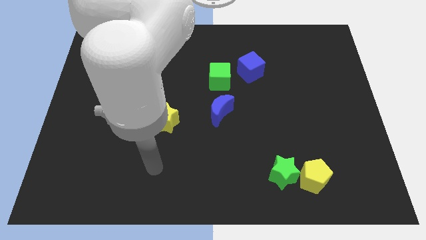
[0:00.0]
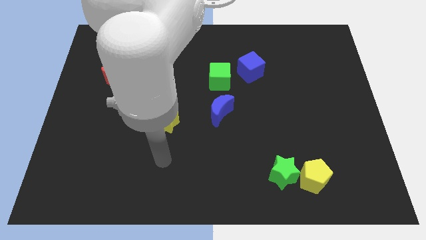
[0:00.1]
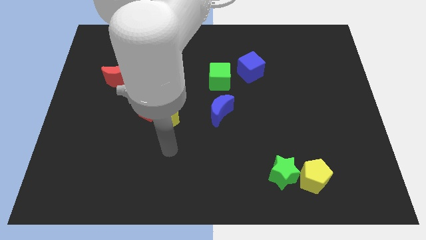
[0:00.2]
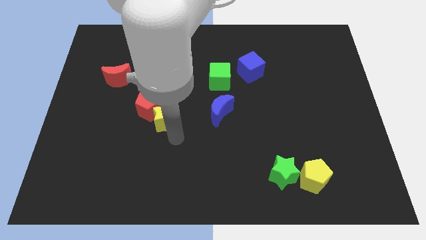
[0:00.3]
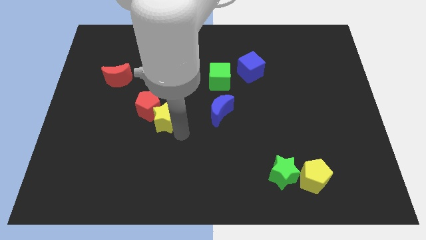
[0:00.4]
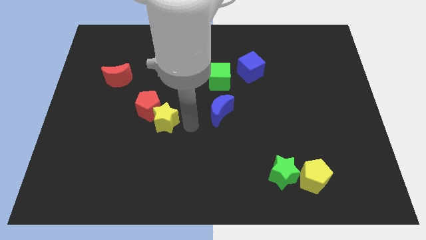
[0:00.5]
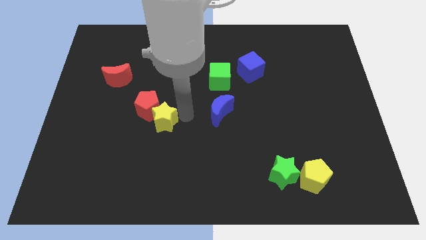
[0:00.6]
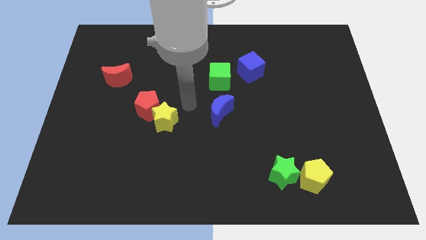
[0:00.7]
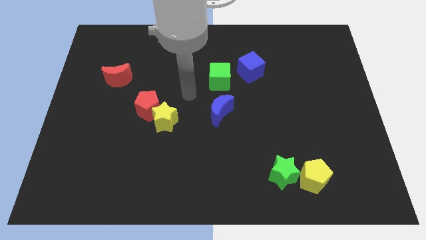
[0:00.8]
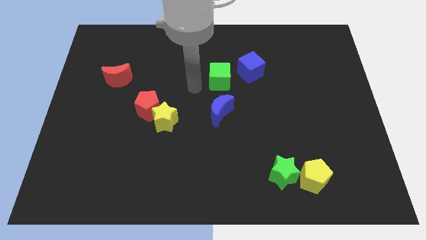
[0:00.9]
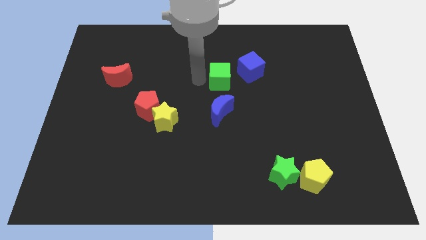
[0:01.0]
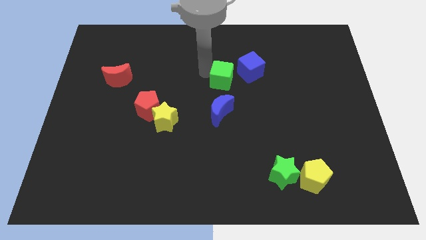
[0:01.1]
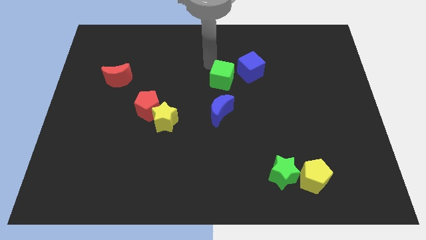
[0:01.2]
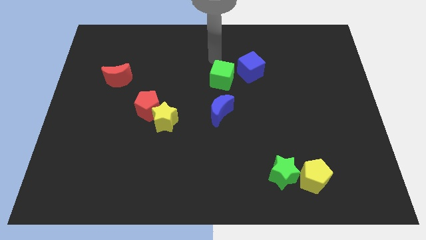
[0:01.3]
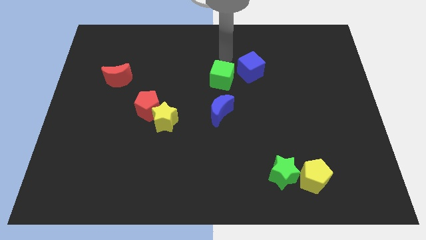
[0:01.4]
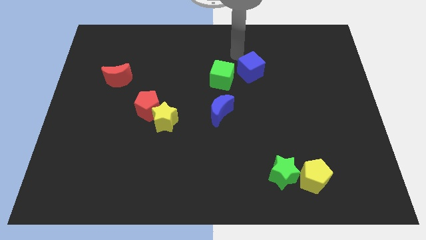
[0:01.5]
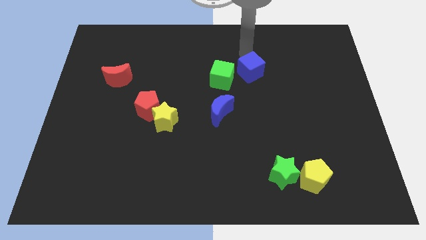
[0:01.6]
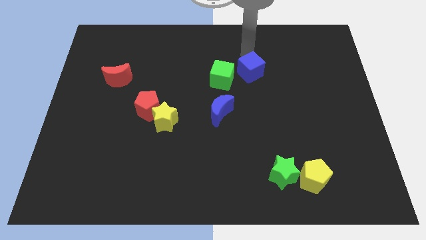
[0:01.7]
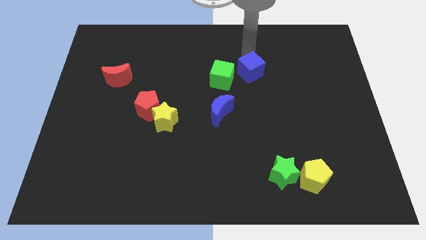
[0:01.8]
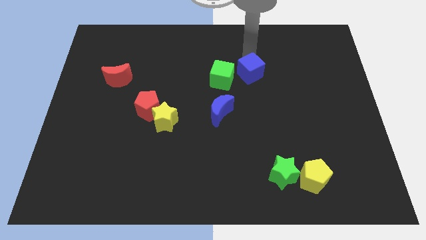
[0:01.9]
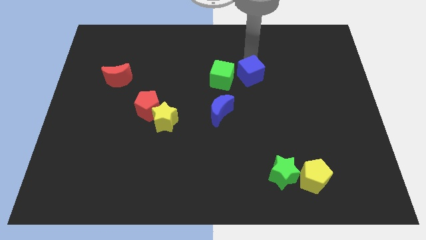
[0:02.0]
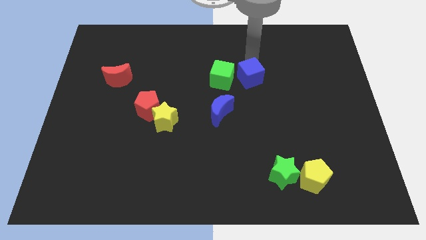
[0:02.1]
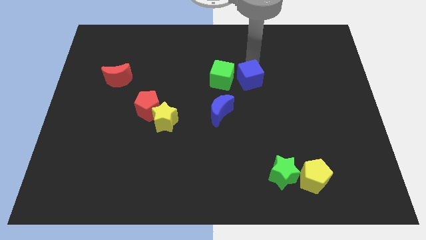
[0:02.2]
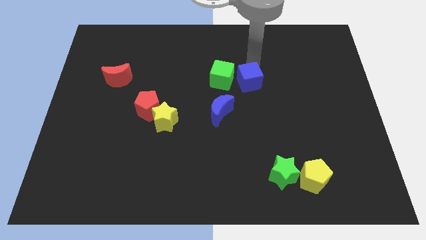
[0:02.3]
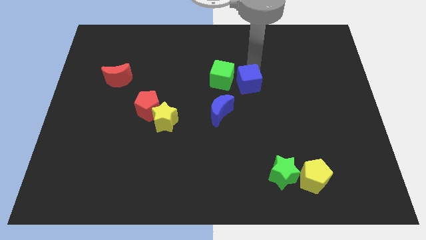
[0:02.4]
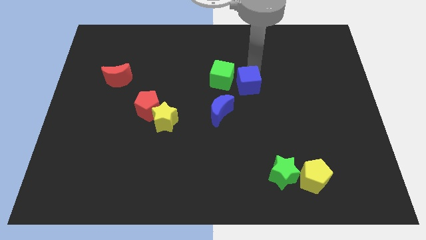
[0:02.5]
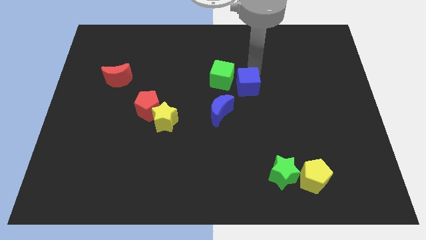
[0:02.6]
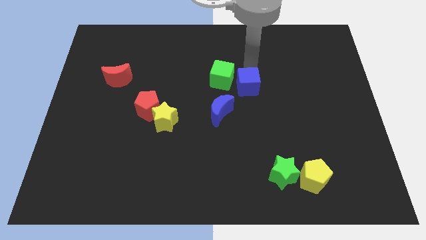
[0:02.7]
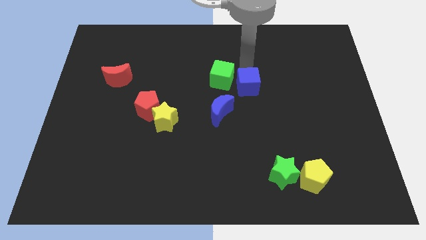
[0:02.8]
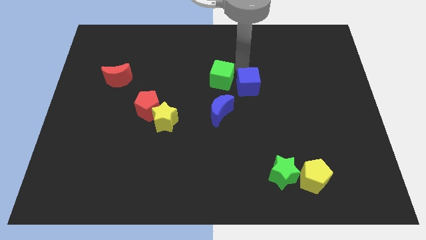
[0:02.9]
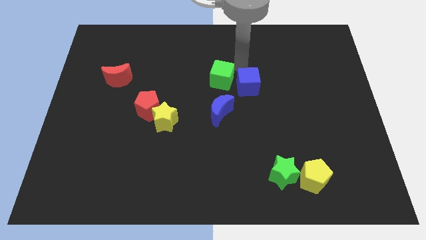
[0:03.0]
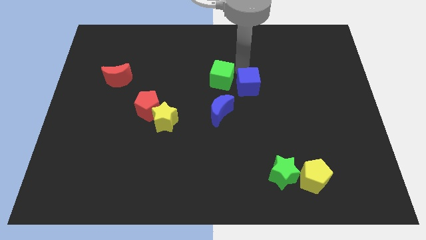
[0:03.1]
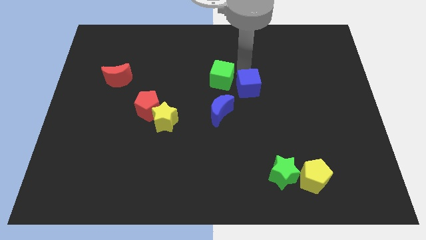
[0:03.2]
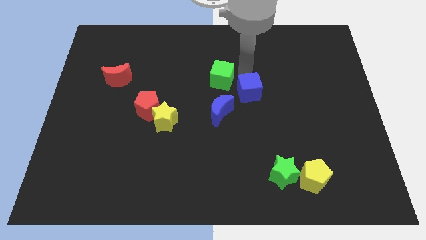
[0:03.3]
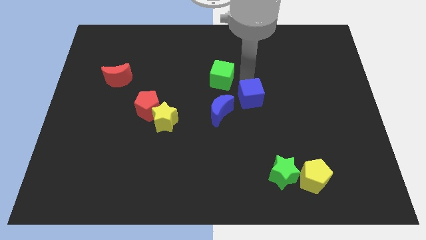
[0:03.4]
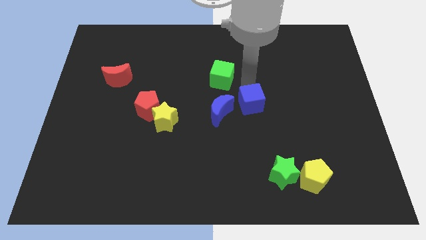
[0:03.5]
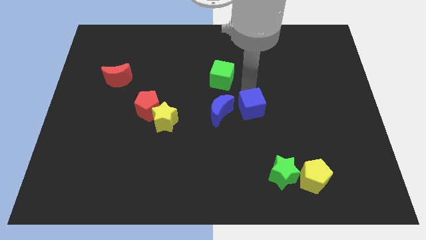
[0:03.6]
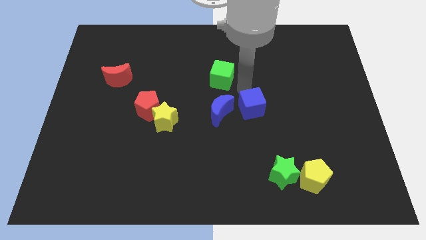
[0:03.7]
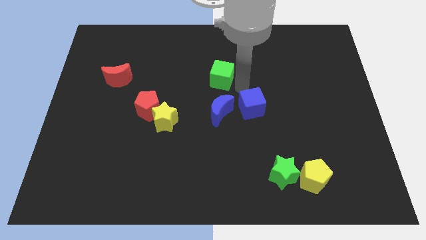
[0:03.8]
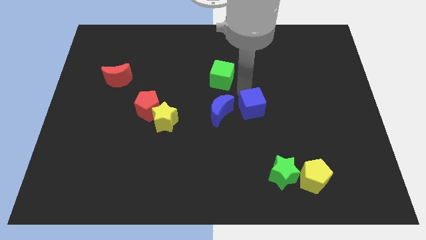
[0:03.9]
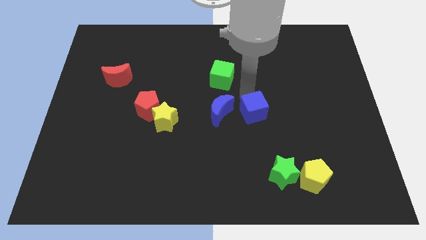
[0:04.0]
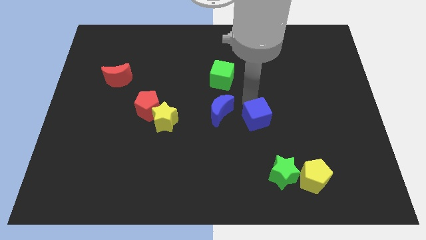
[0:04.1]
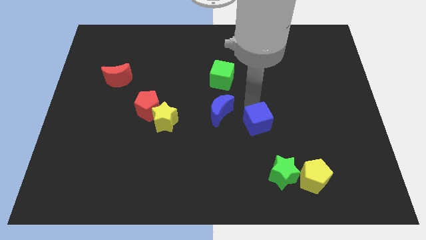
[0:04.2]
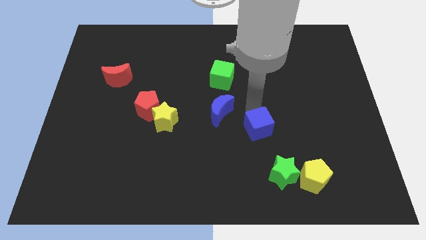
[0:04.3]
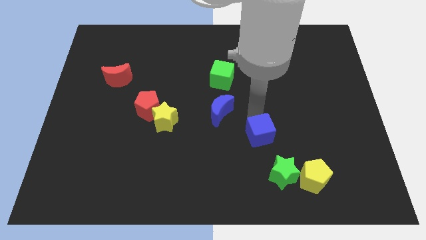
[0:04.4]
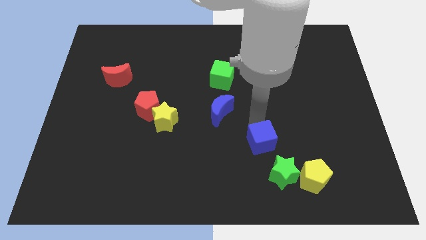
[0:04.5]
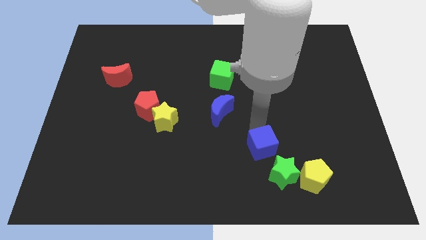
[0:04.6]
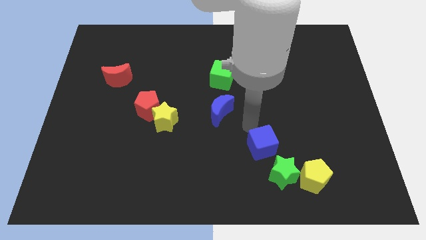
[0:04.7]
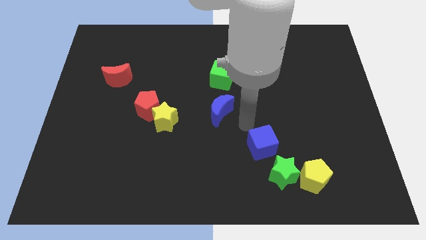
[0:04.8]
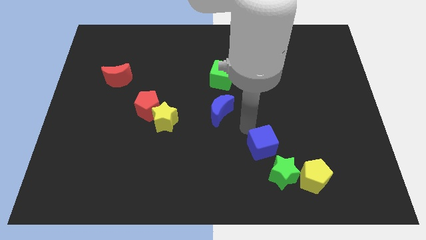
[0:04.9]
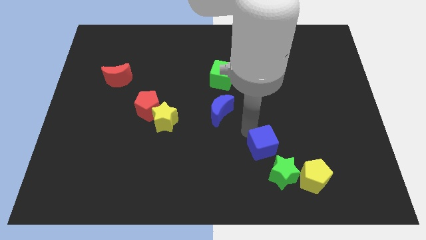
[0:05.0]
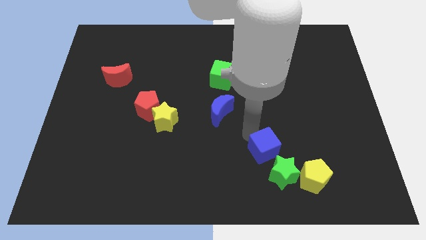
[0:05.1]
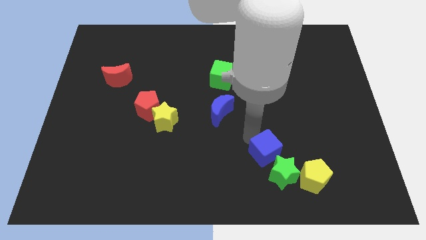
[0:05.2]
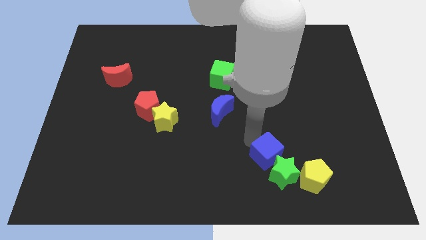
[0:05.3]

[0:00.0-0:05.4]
push the blue cube close to the green star

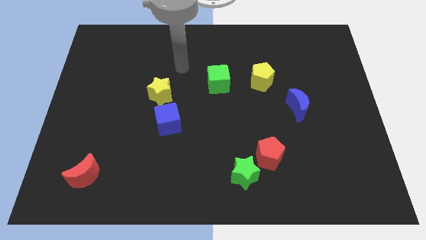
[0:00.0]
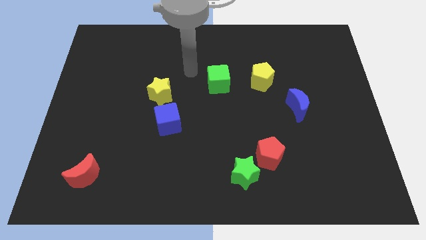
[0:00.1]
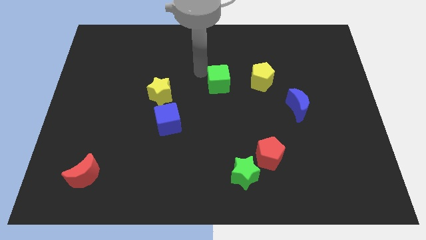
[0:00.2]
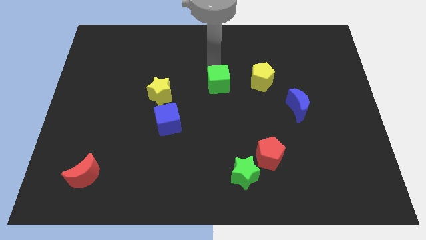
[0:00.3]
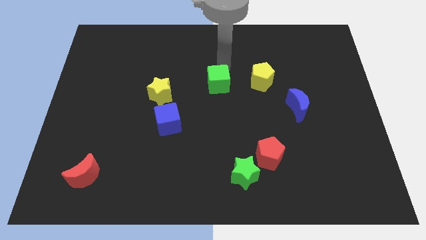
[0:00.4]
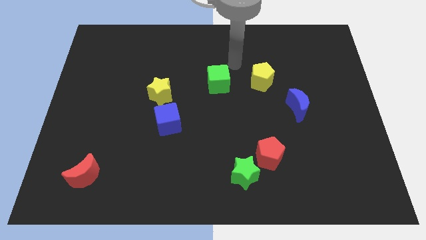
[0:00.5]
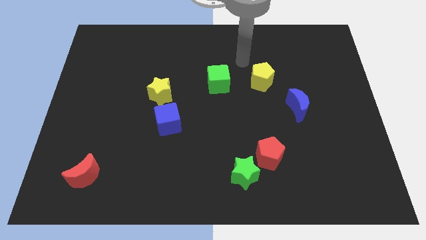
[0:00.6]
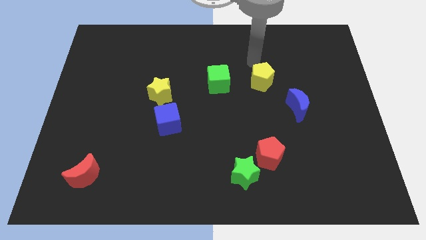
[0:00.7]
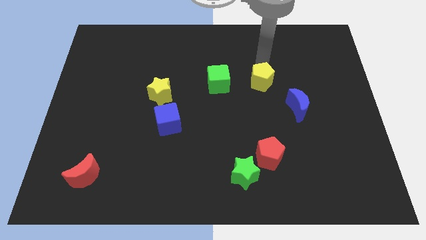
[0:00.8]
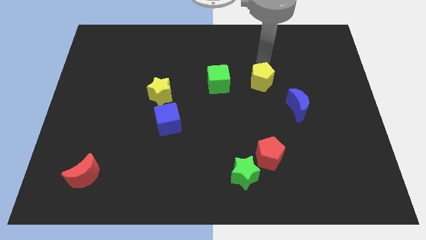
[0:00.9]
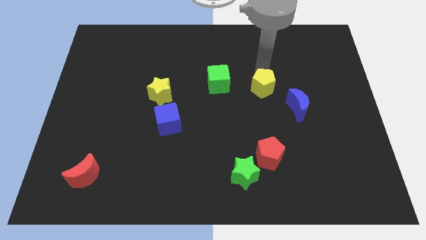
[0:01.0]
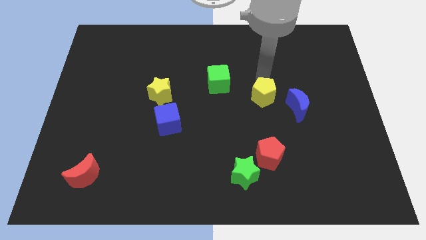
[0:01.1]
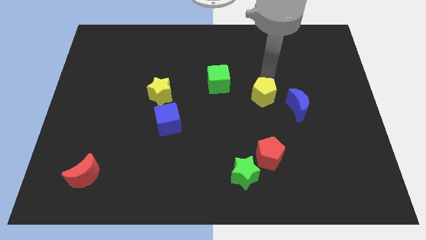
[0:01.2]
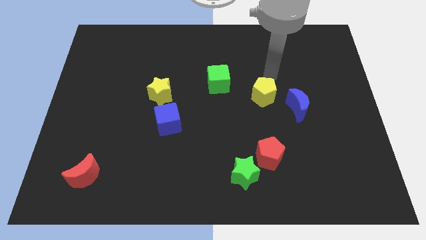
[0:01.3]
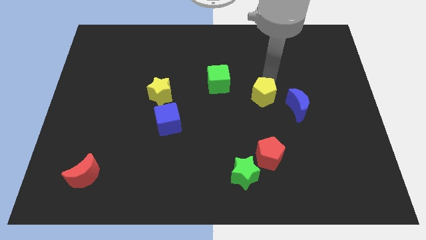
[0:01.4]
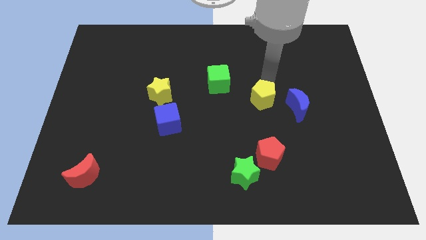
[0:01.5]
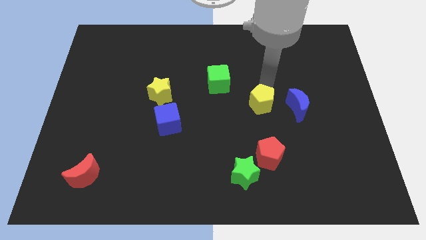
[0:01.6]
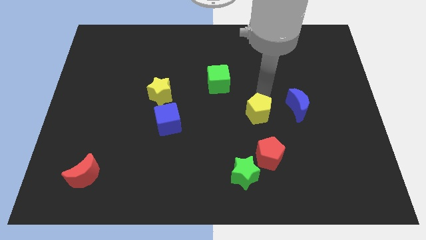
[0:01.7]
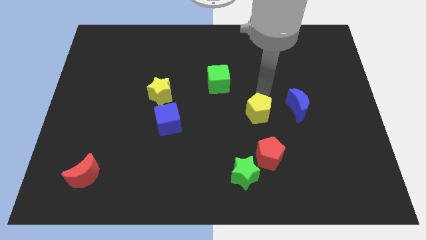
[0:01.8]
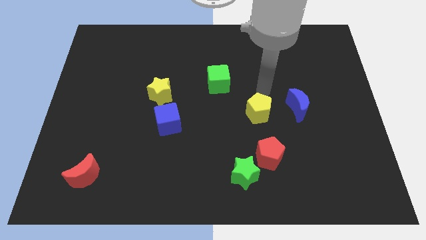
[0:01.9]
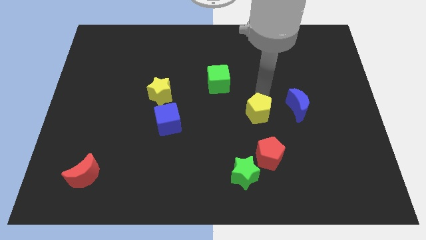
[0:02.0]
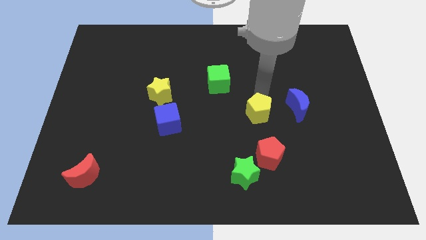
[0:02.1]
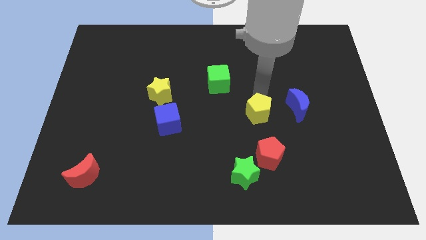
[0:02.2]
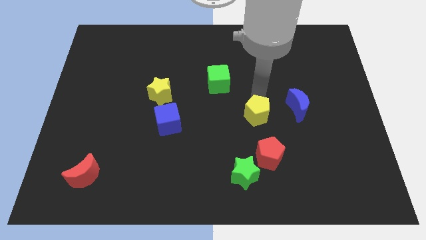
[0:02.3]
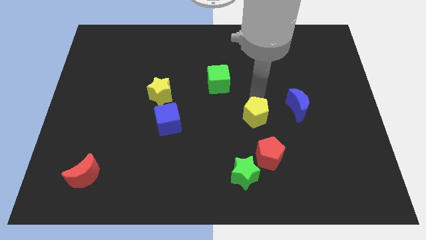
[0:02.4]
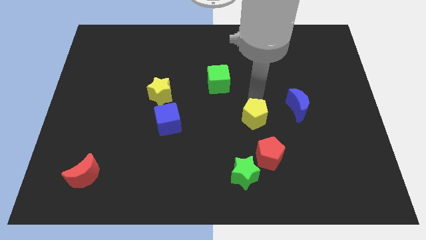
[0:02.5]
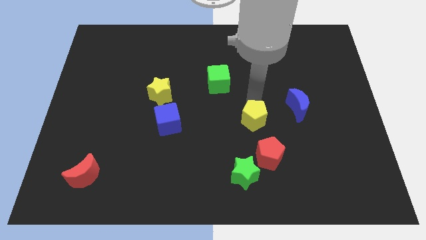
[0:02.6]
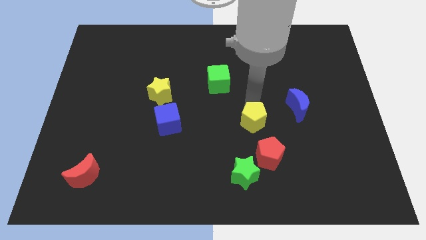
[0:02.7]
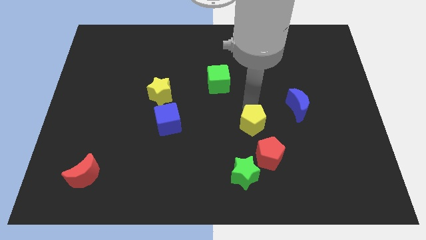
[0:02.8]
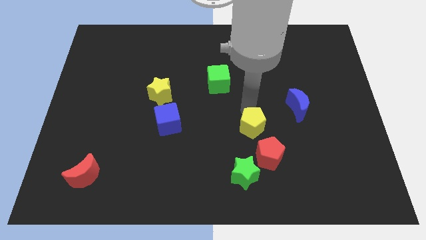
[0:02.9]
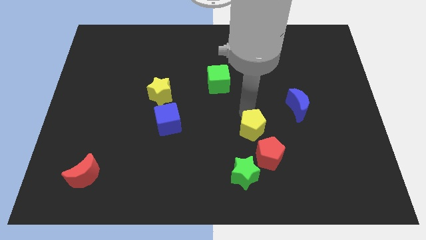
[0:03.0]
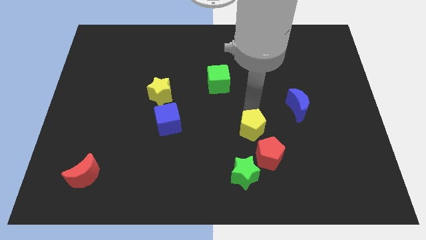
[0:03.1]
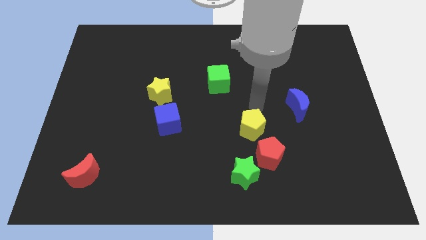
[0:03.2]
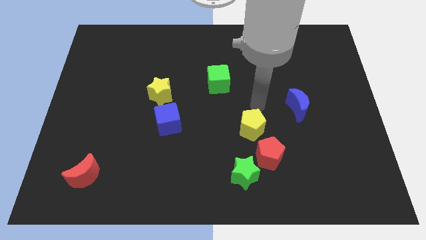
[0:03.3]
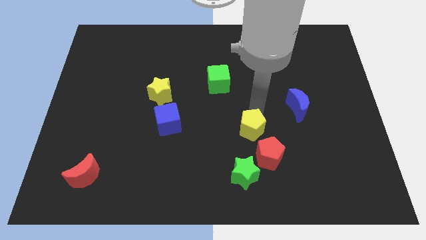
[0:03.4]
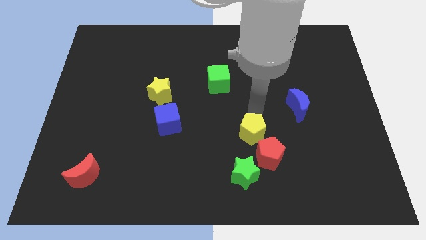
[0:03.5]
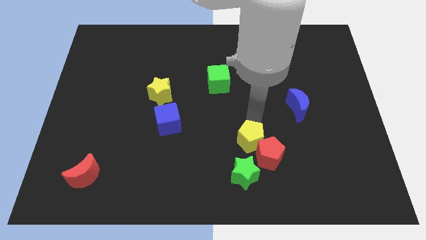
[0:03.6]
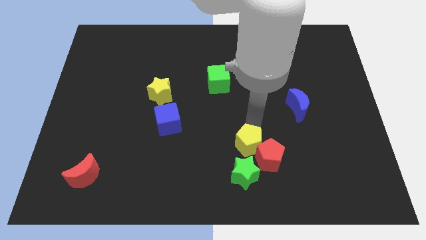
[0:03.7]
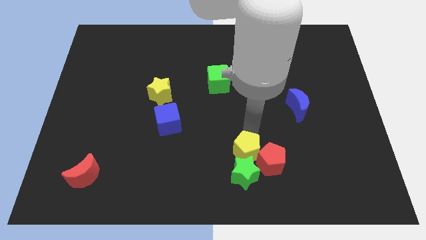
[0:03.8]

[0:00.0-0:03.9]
slide the yellow pentagon next to the green star
